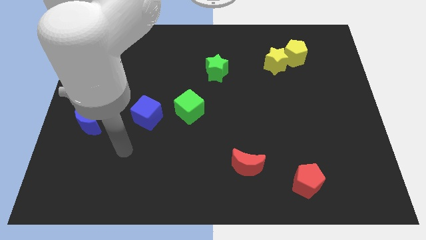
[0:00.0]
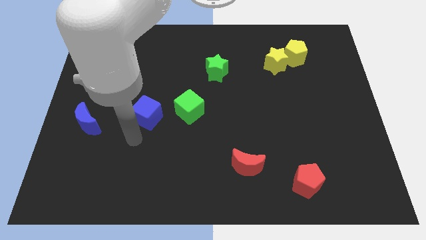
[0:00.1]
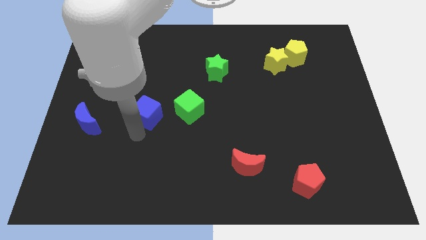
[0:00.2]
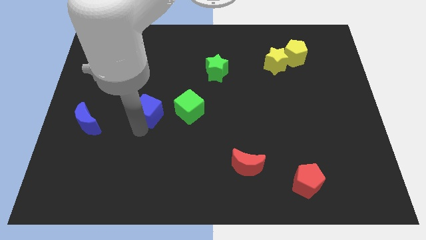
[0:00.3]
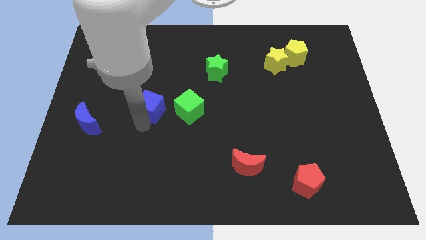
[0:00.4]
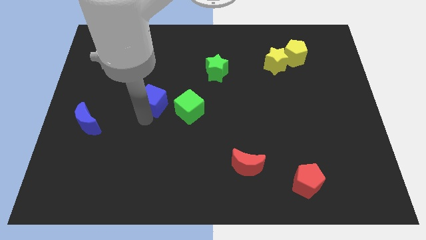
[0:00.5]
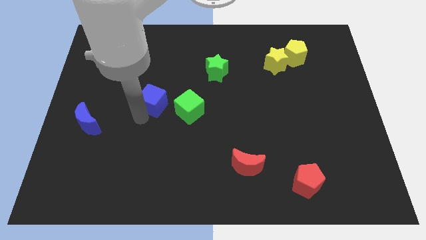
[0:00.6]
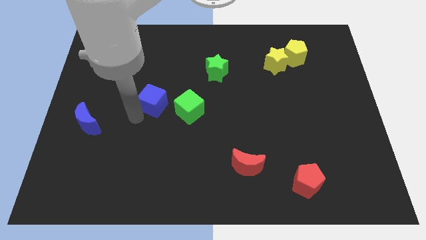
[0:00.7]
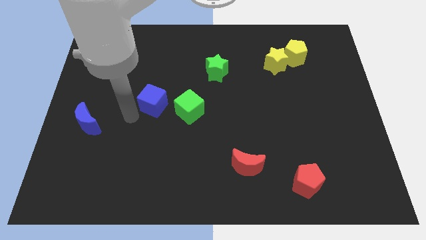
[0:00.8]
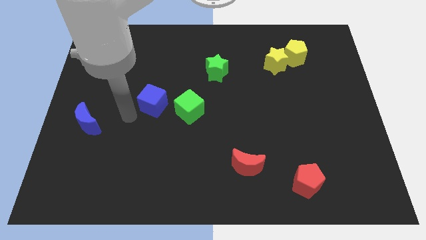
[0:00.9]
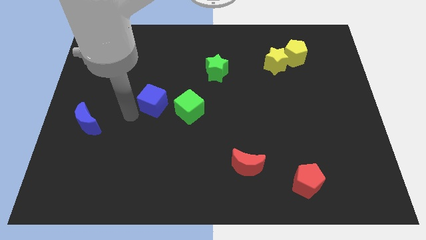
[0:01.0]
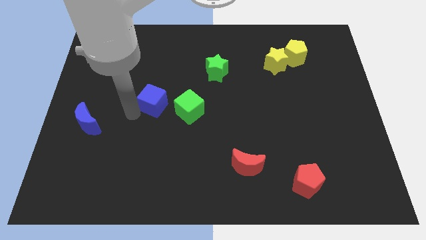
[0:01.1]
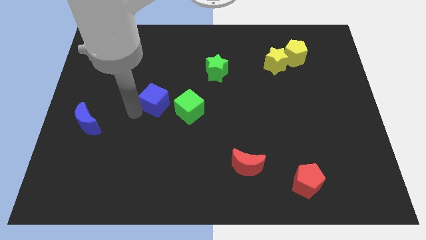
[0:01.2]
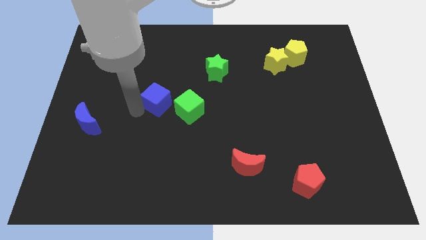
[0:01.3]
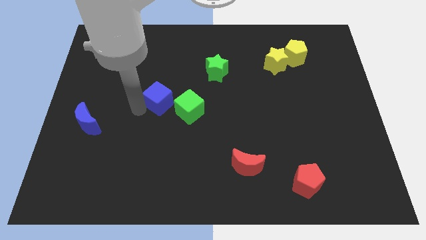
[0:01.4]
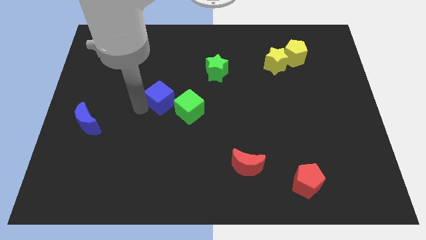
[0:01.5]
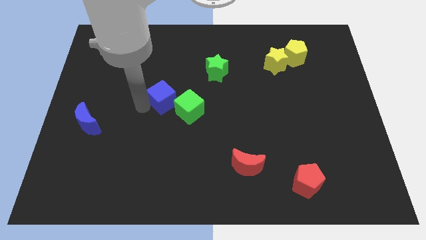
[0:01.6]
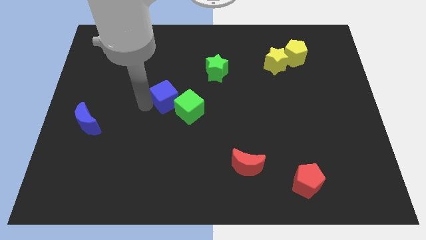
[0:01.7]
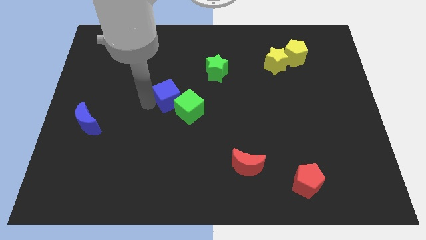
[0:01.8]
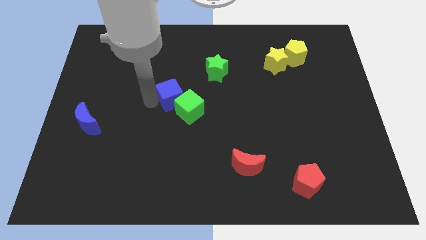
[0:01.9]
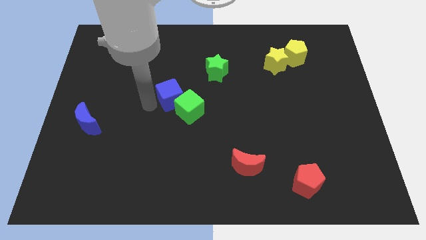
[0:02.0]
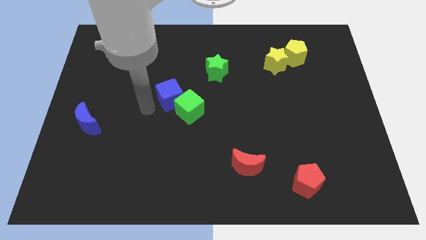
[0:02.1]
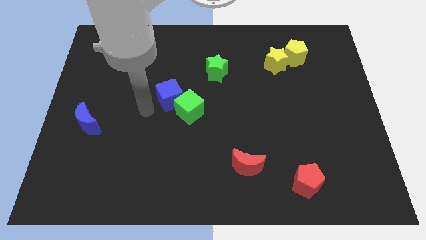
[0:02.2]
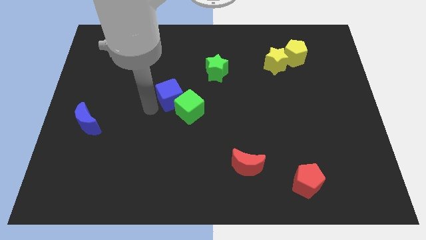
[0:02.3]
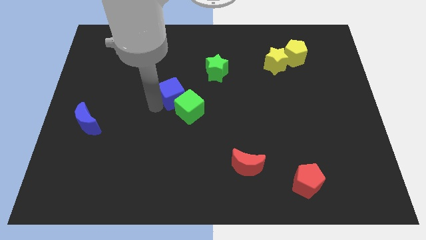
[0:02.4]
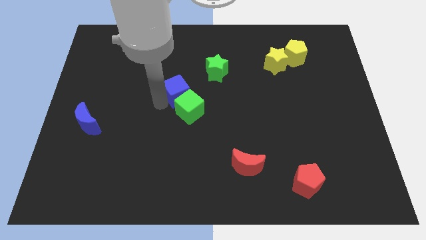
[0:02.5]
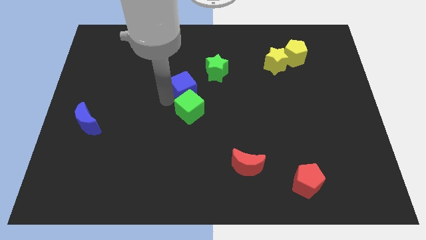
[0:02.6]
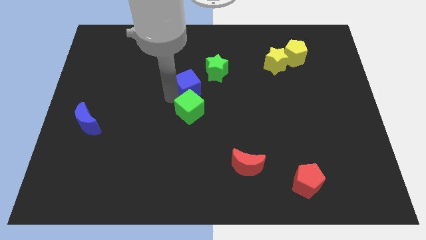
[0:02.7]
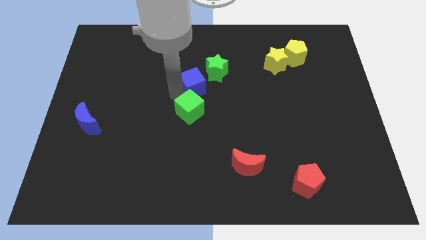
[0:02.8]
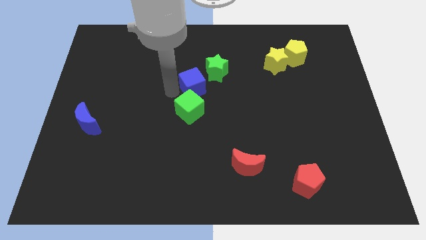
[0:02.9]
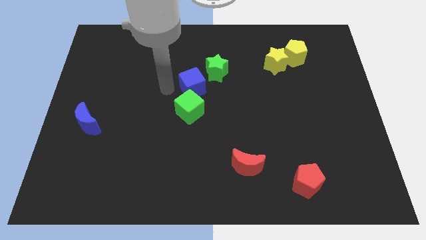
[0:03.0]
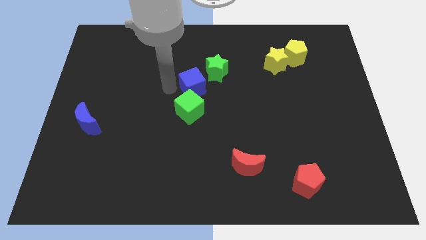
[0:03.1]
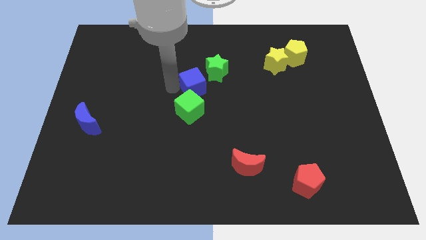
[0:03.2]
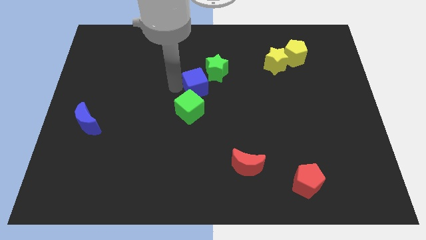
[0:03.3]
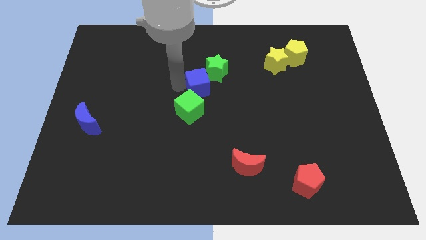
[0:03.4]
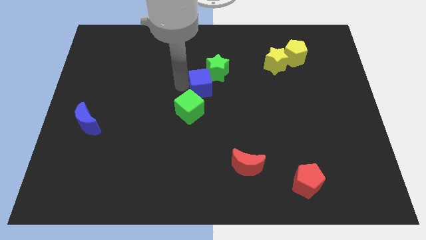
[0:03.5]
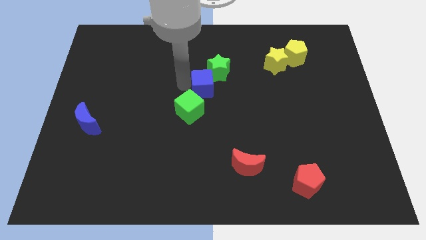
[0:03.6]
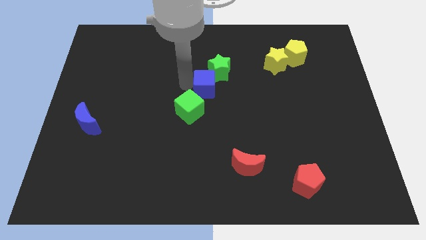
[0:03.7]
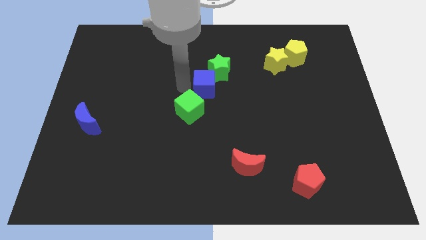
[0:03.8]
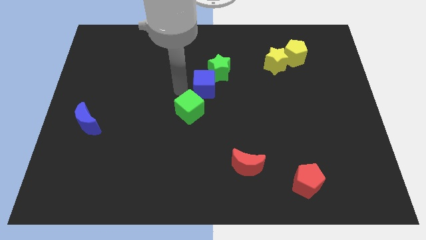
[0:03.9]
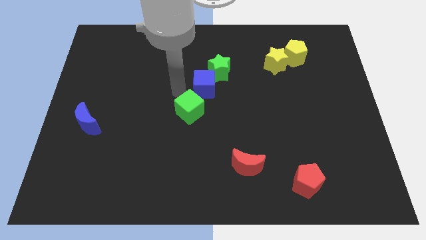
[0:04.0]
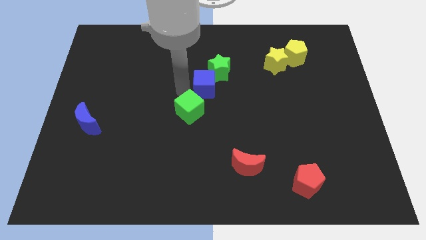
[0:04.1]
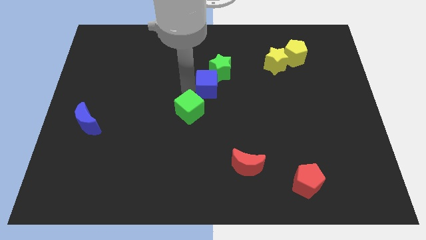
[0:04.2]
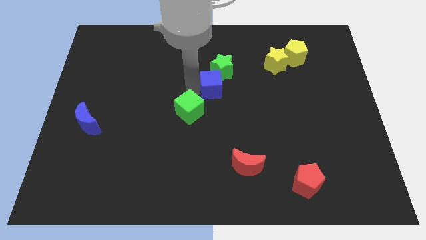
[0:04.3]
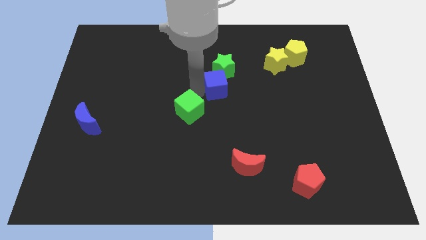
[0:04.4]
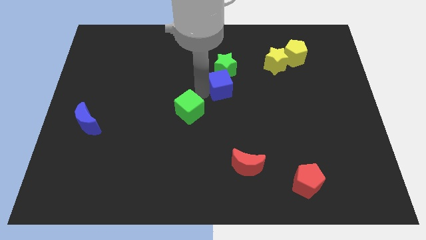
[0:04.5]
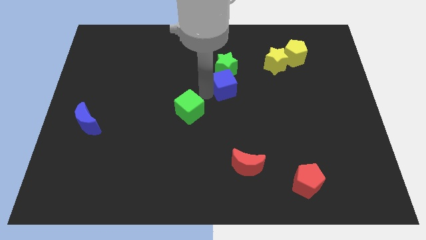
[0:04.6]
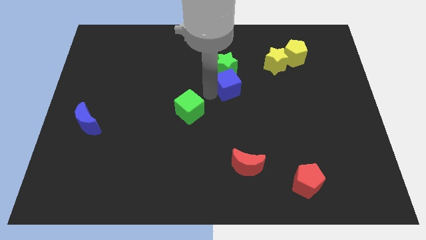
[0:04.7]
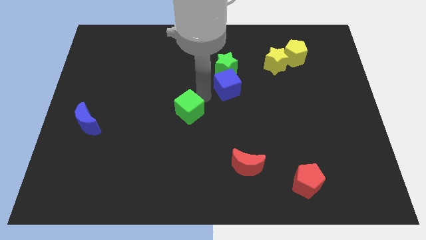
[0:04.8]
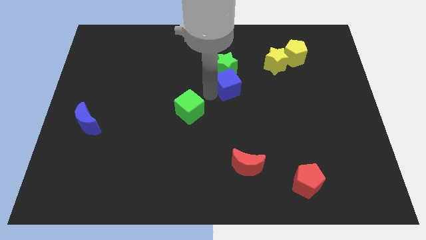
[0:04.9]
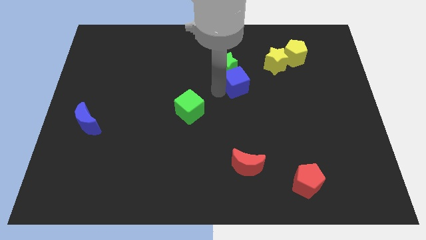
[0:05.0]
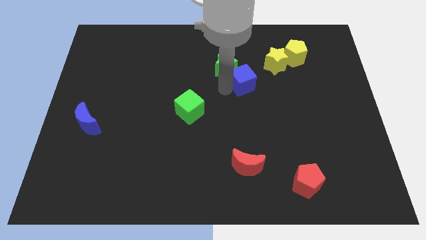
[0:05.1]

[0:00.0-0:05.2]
put the blue cube to the bottom left of the yellow star

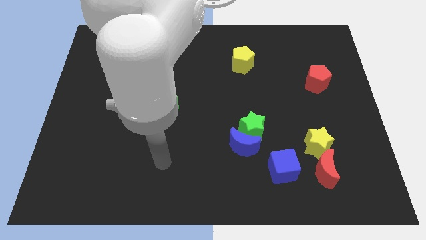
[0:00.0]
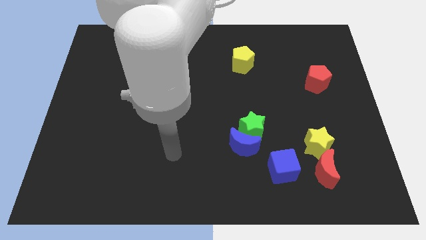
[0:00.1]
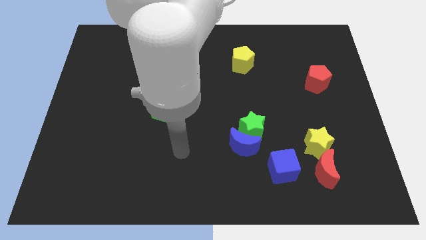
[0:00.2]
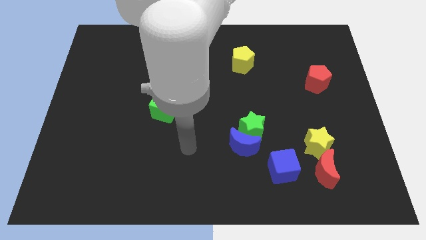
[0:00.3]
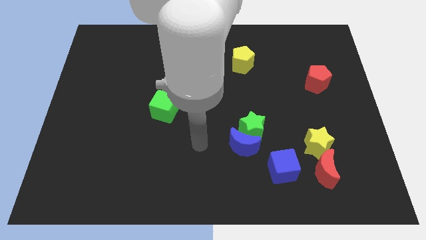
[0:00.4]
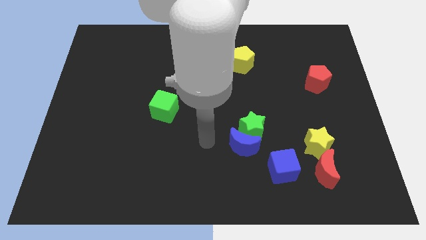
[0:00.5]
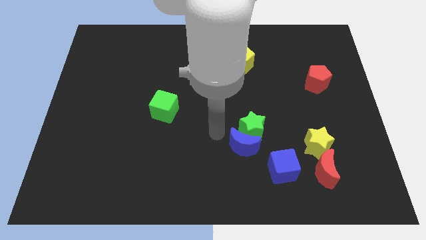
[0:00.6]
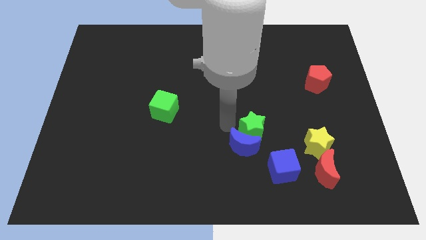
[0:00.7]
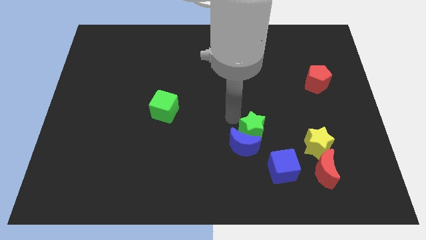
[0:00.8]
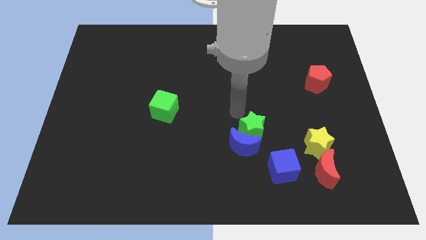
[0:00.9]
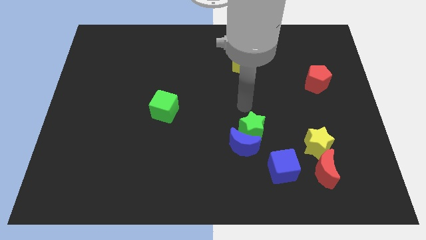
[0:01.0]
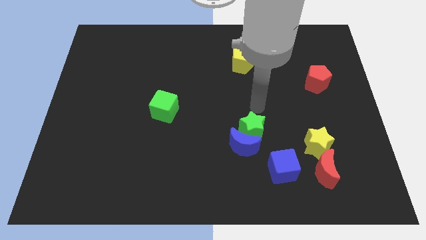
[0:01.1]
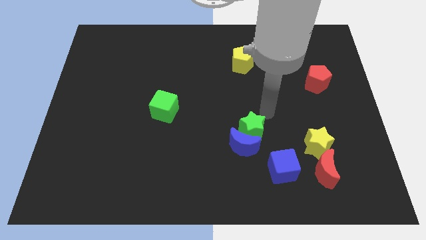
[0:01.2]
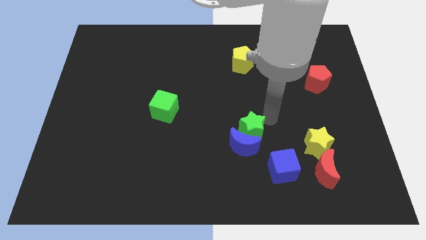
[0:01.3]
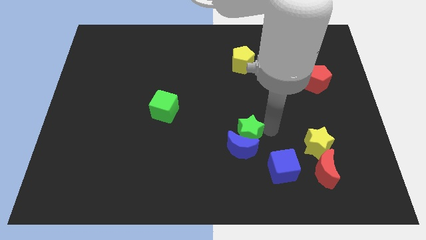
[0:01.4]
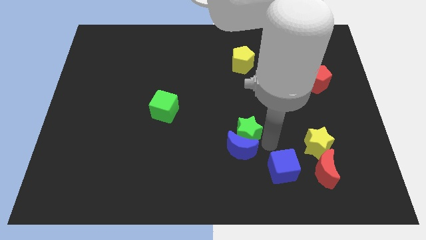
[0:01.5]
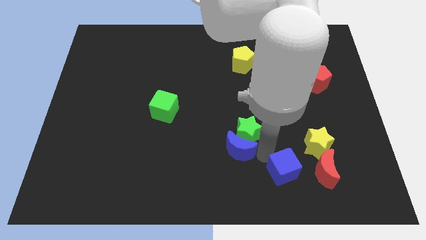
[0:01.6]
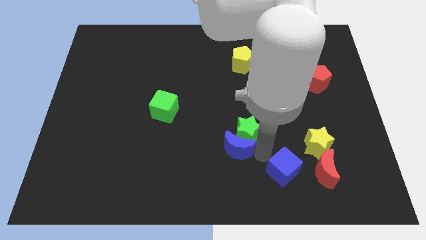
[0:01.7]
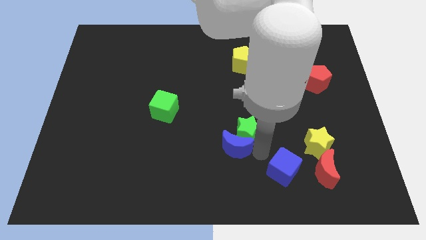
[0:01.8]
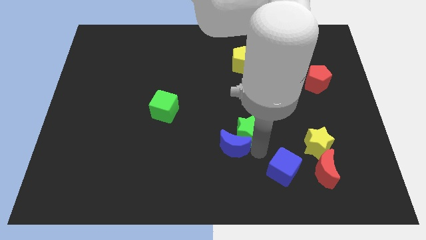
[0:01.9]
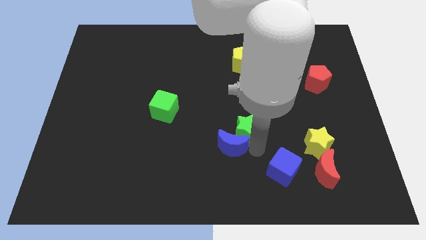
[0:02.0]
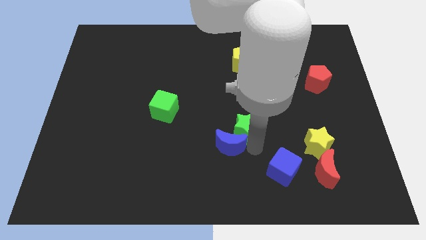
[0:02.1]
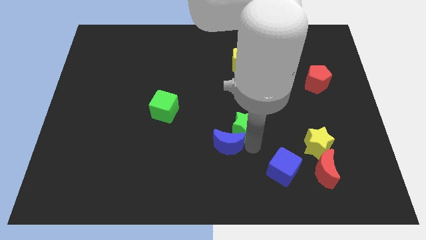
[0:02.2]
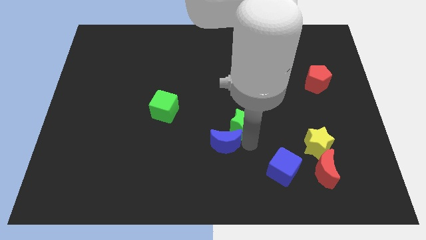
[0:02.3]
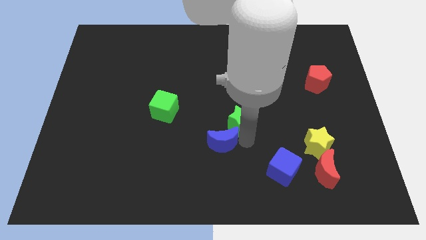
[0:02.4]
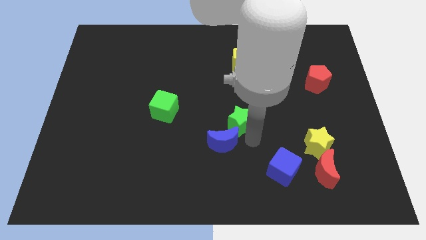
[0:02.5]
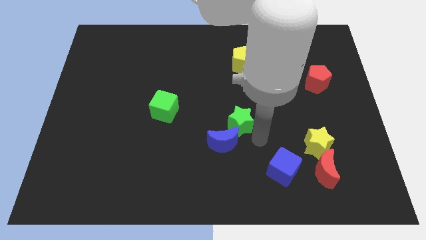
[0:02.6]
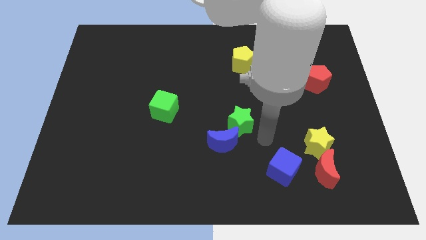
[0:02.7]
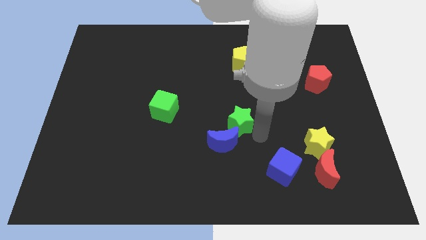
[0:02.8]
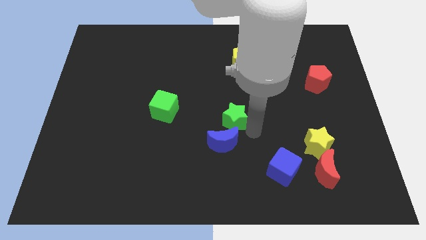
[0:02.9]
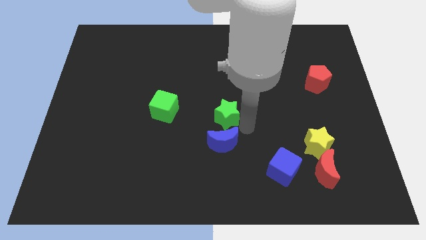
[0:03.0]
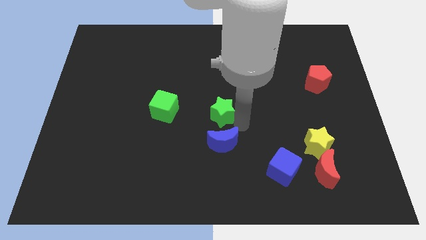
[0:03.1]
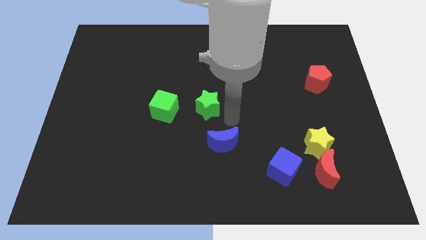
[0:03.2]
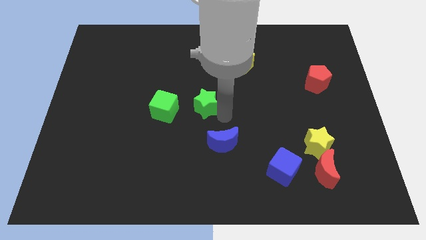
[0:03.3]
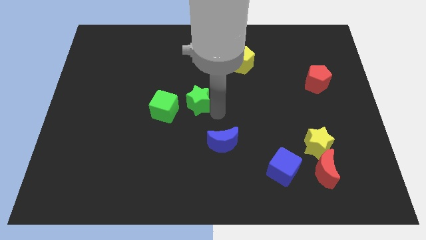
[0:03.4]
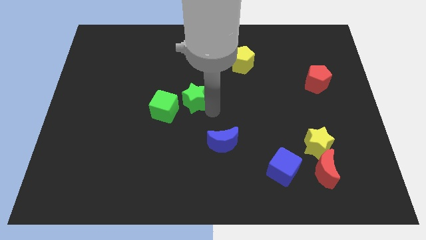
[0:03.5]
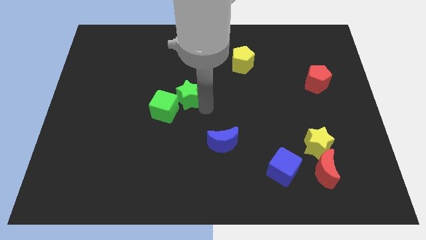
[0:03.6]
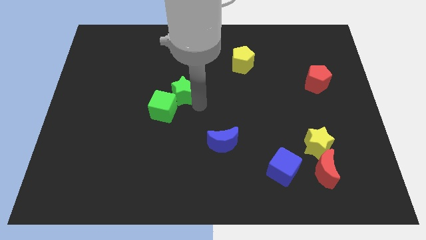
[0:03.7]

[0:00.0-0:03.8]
slide the green star to the top of the green cube
